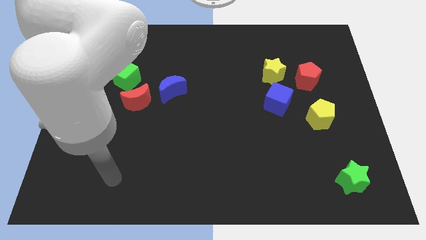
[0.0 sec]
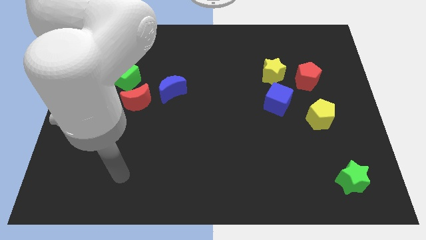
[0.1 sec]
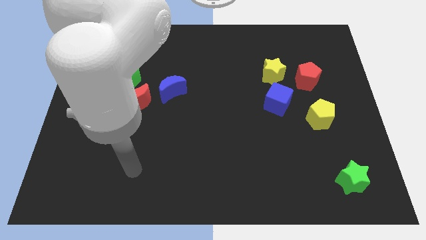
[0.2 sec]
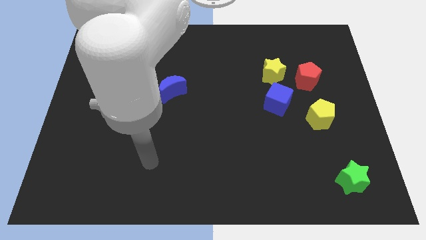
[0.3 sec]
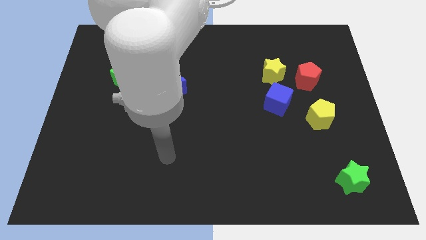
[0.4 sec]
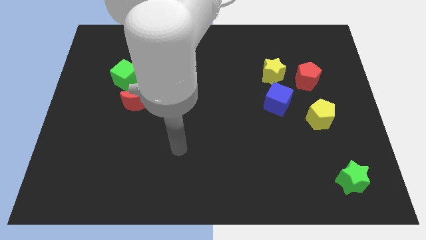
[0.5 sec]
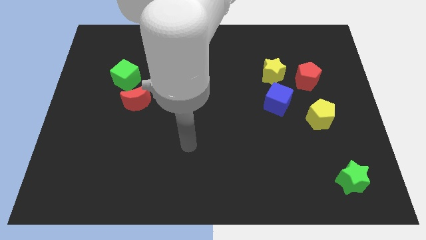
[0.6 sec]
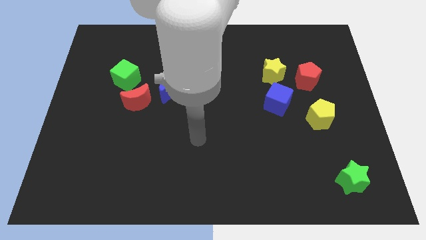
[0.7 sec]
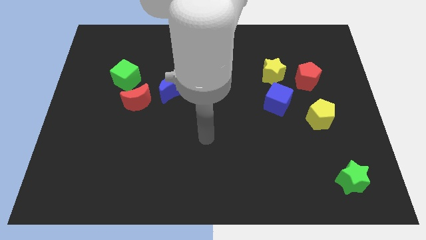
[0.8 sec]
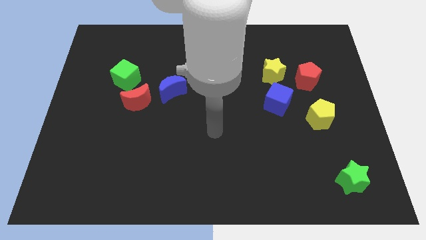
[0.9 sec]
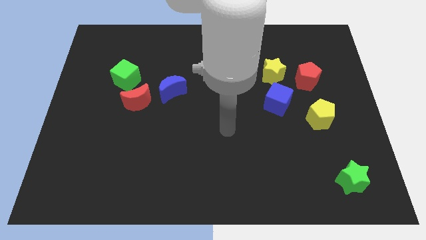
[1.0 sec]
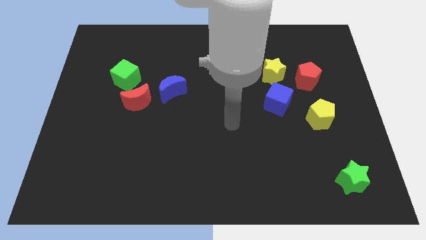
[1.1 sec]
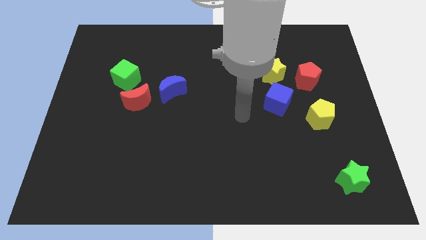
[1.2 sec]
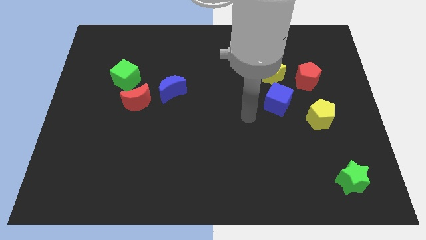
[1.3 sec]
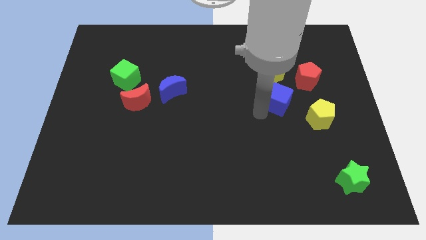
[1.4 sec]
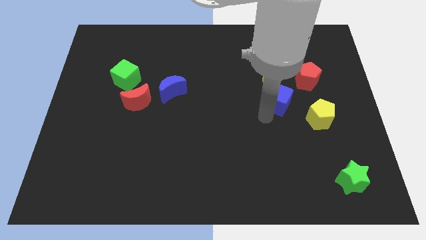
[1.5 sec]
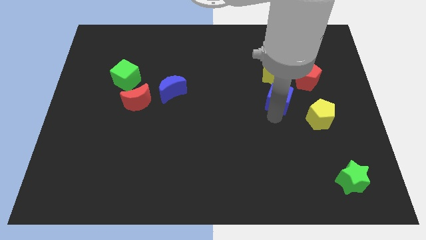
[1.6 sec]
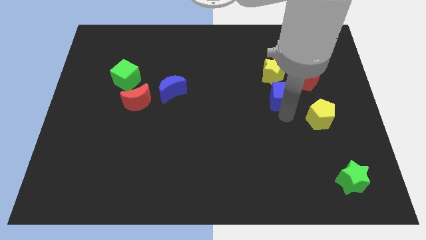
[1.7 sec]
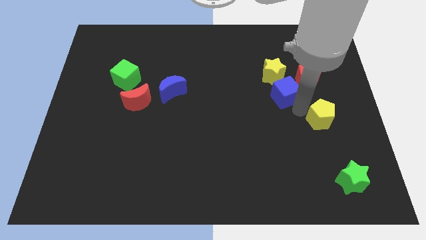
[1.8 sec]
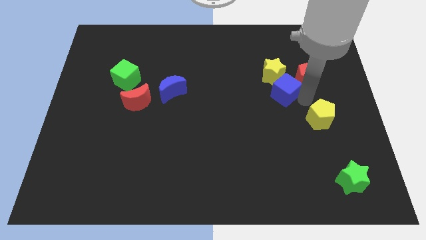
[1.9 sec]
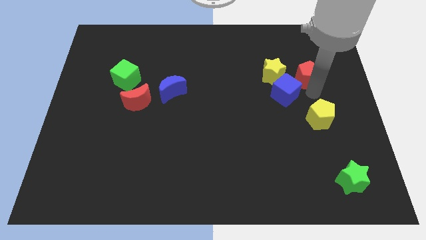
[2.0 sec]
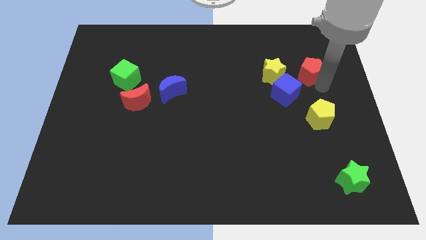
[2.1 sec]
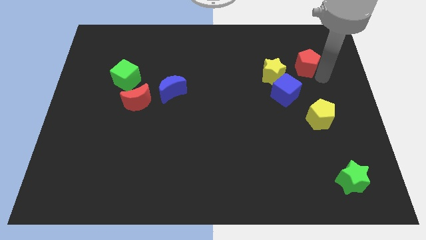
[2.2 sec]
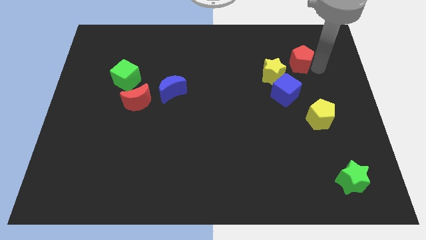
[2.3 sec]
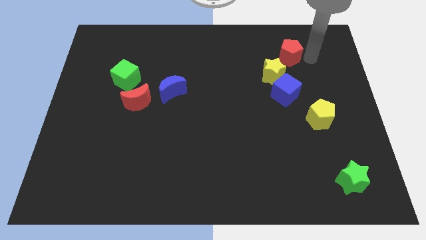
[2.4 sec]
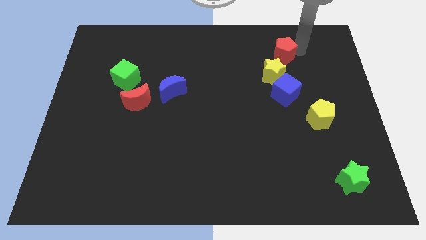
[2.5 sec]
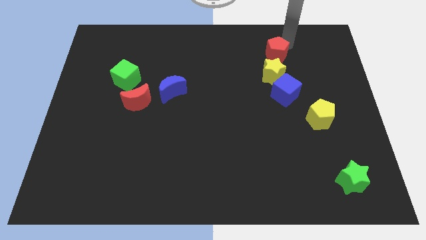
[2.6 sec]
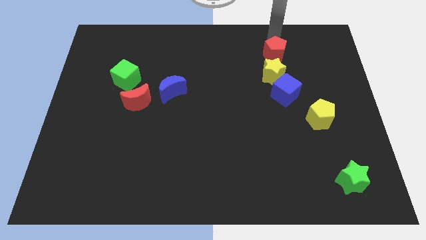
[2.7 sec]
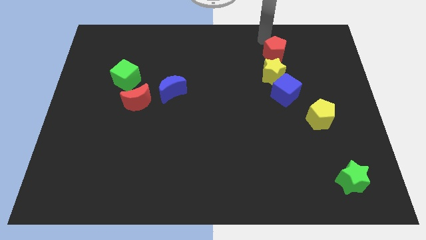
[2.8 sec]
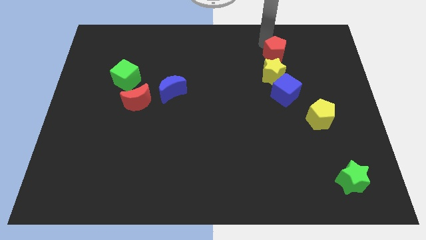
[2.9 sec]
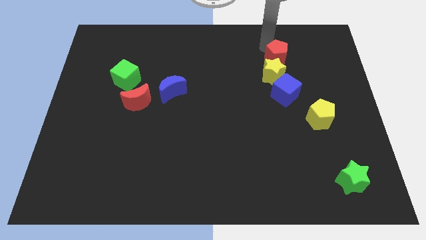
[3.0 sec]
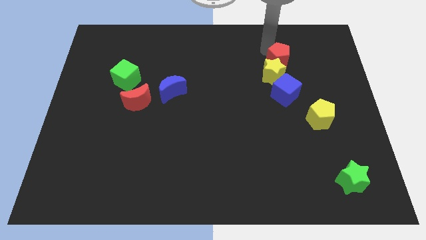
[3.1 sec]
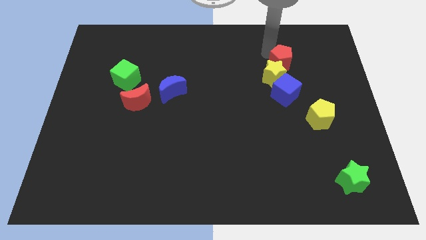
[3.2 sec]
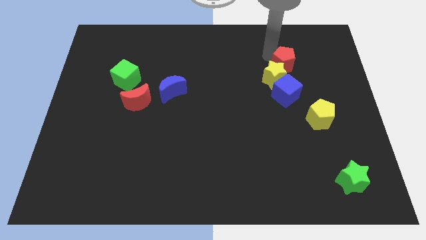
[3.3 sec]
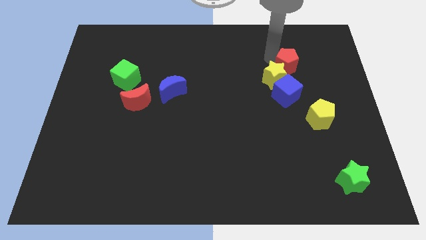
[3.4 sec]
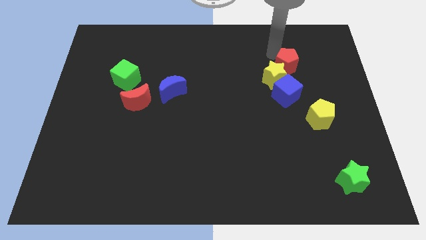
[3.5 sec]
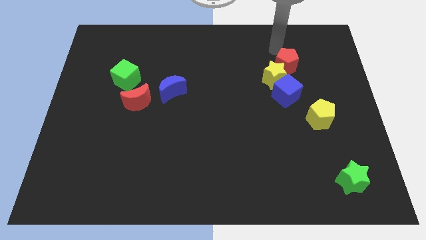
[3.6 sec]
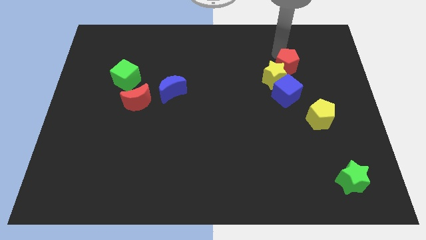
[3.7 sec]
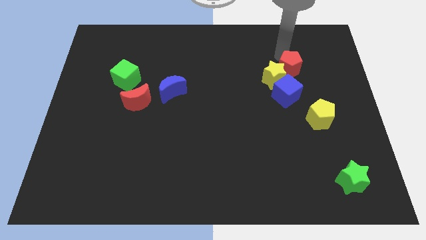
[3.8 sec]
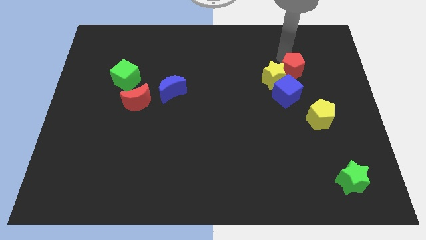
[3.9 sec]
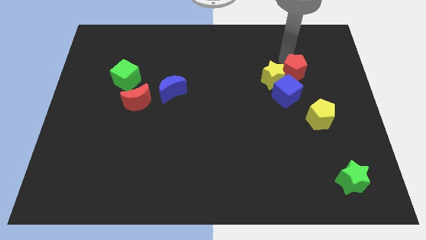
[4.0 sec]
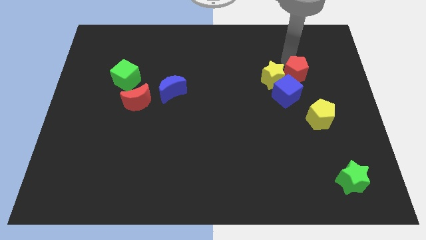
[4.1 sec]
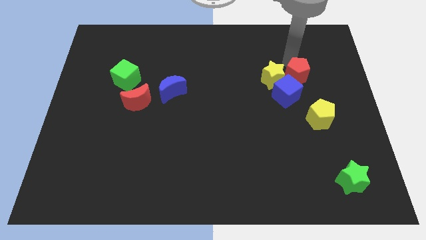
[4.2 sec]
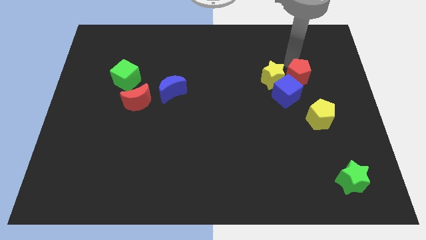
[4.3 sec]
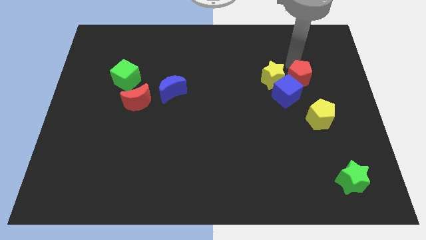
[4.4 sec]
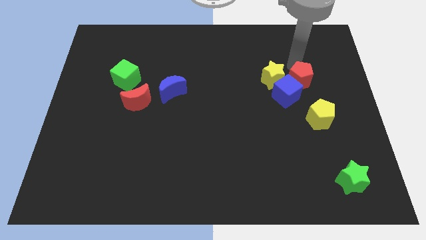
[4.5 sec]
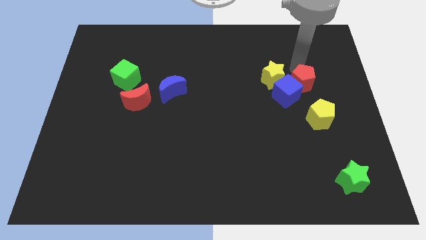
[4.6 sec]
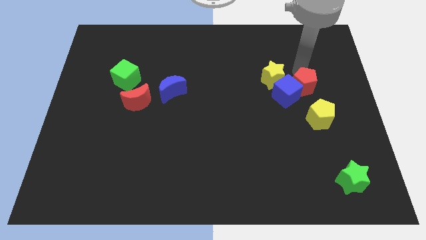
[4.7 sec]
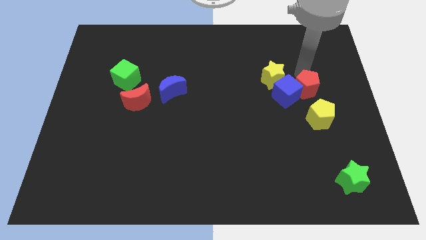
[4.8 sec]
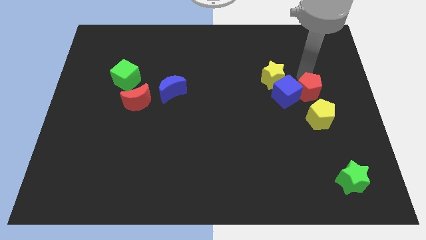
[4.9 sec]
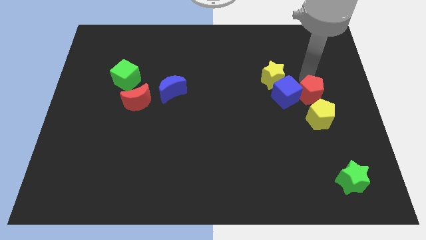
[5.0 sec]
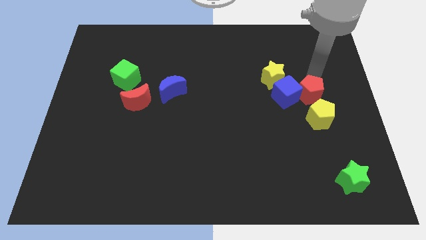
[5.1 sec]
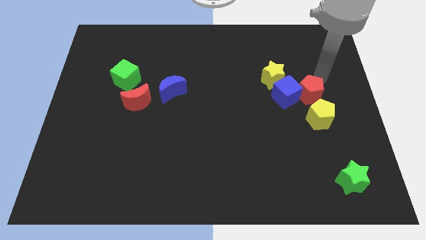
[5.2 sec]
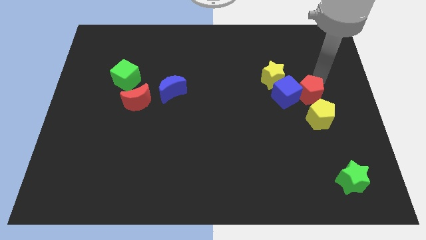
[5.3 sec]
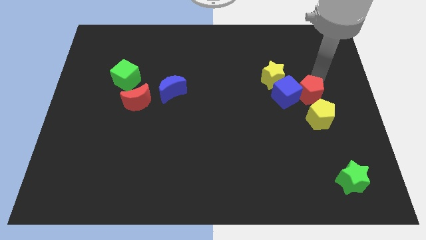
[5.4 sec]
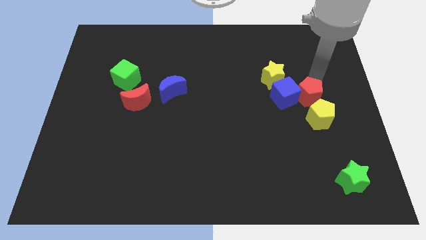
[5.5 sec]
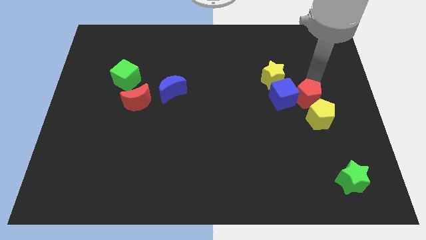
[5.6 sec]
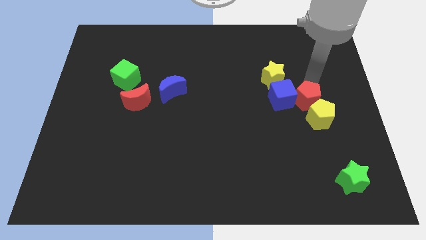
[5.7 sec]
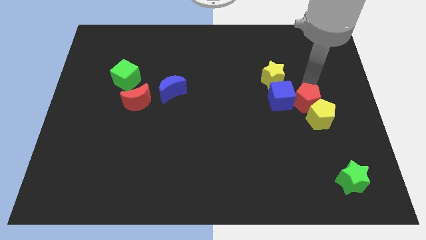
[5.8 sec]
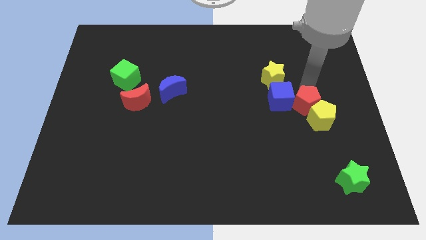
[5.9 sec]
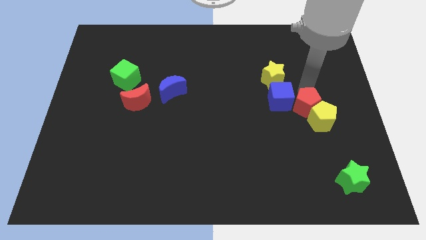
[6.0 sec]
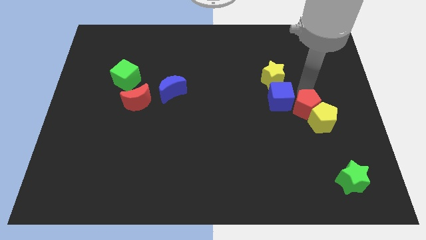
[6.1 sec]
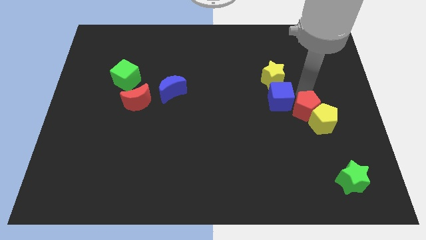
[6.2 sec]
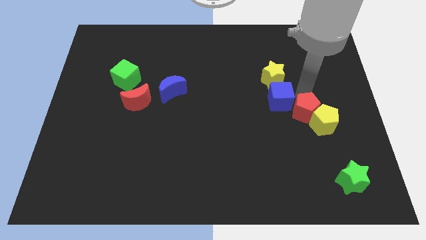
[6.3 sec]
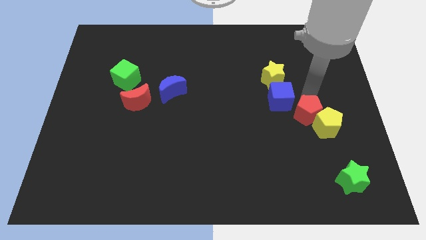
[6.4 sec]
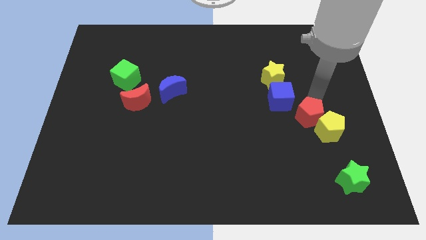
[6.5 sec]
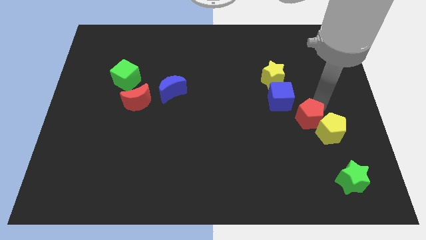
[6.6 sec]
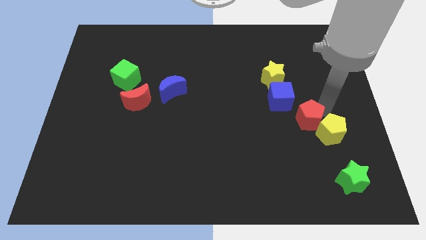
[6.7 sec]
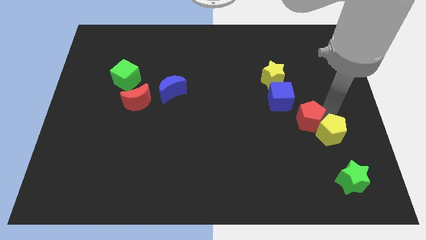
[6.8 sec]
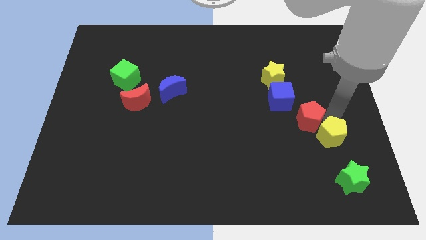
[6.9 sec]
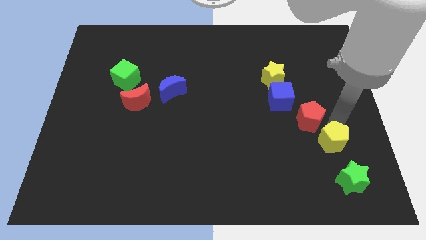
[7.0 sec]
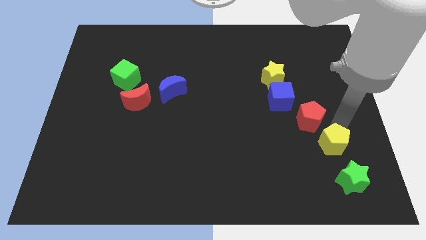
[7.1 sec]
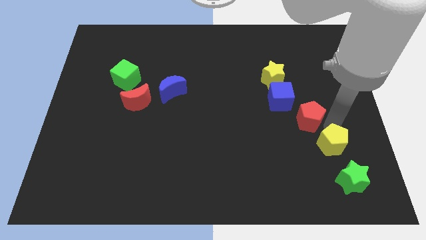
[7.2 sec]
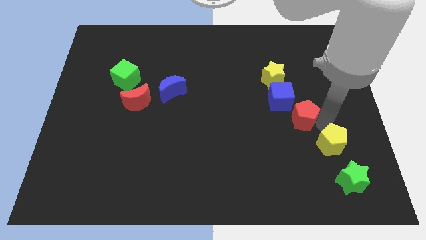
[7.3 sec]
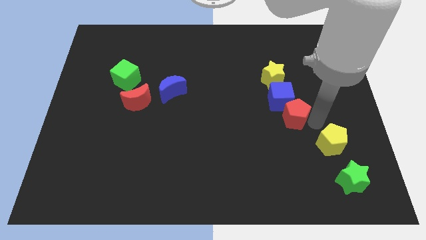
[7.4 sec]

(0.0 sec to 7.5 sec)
put the red pentagon to the bottom of the yellow star

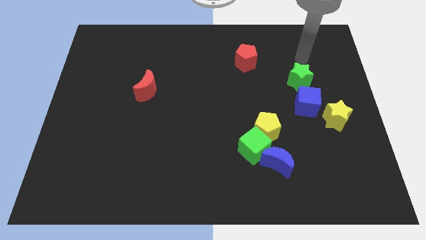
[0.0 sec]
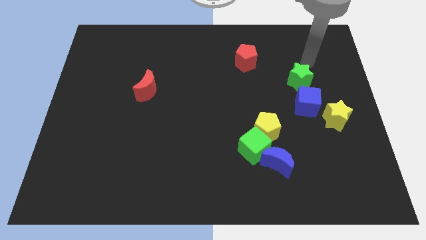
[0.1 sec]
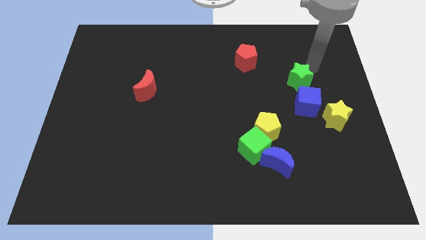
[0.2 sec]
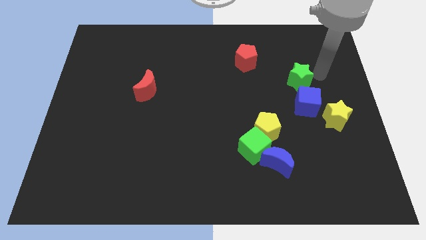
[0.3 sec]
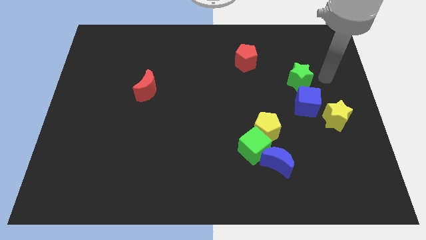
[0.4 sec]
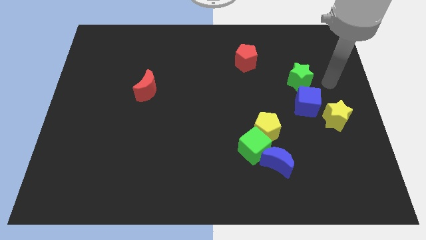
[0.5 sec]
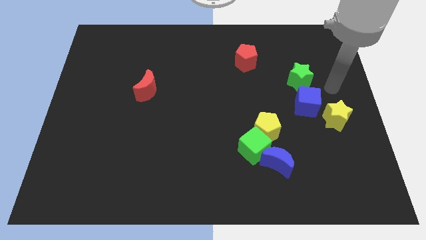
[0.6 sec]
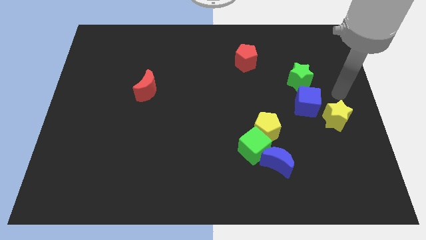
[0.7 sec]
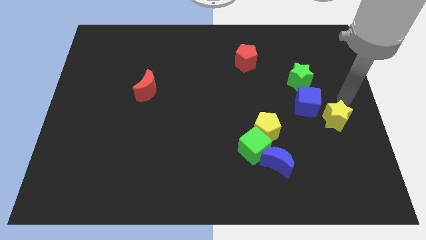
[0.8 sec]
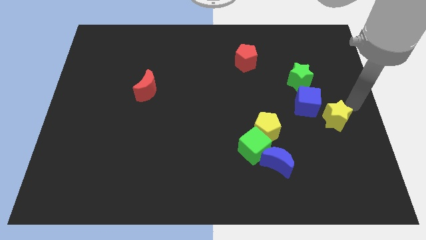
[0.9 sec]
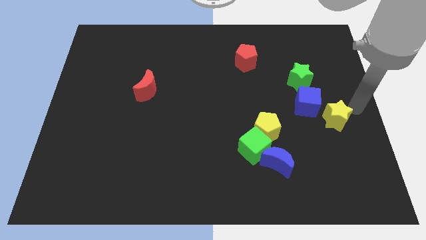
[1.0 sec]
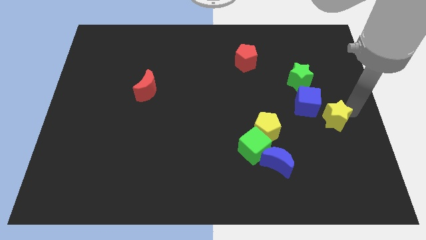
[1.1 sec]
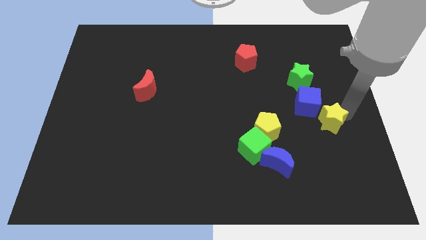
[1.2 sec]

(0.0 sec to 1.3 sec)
put the yellow star to the right of the yellow pentagon
